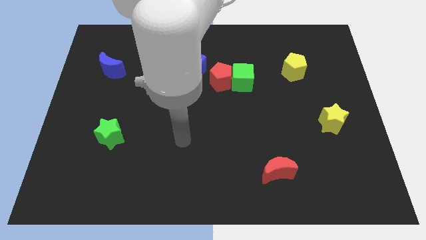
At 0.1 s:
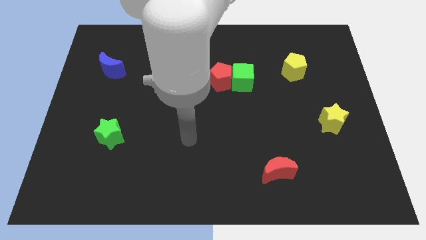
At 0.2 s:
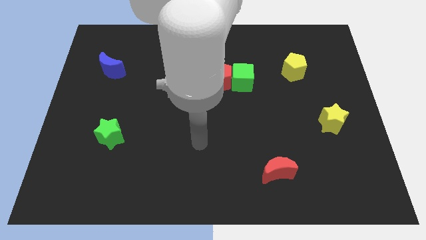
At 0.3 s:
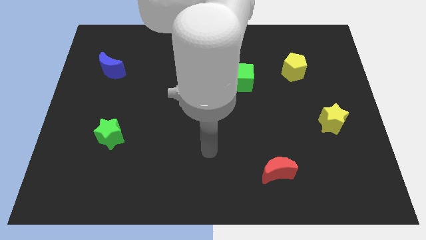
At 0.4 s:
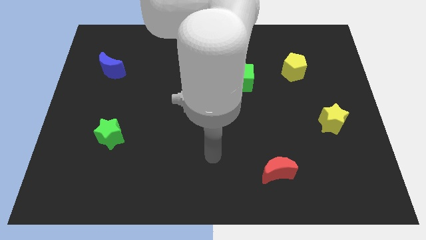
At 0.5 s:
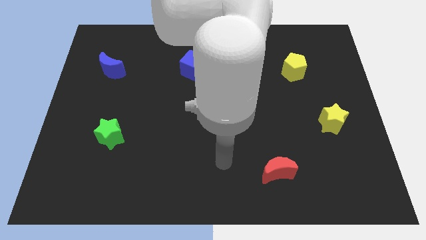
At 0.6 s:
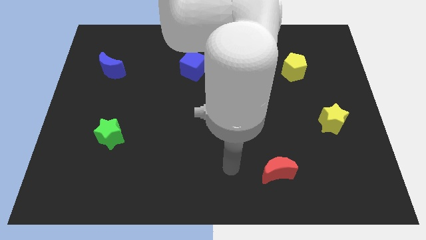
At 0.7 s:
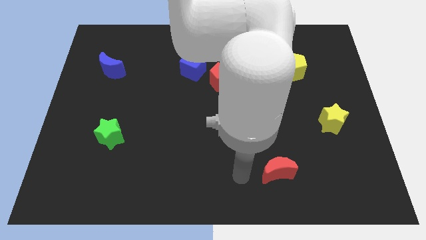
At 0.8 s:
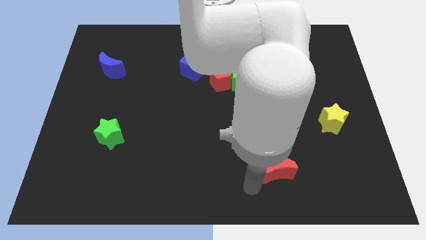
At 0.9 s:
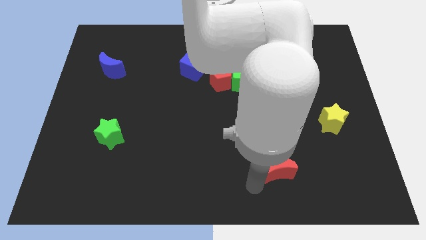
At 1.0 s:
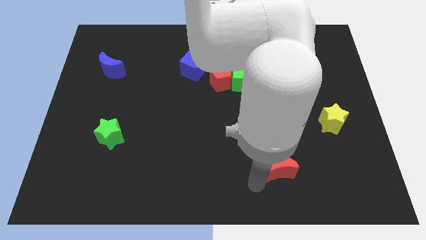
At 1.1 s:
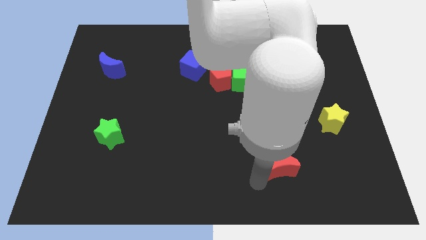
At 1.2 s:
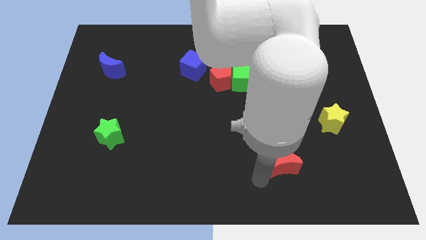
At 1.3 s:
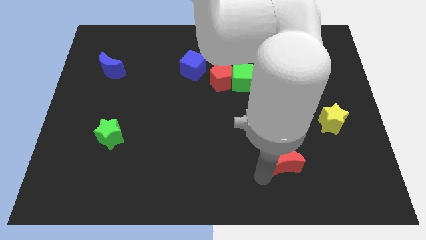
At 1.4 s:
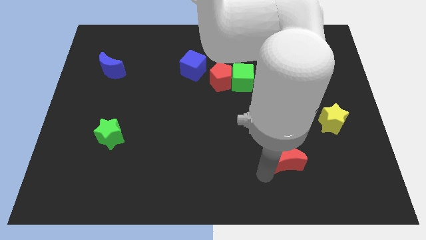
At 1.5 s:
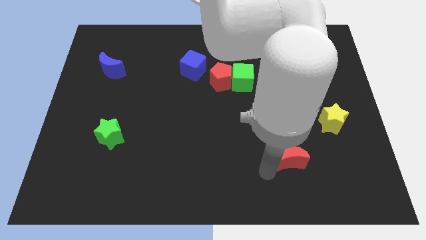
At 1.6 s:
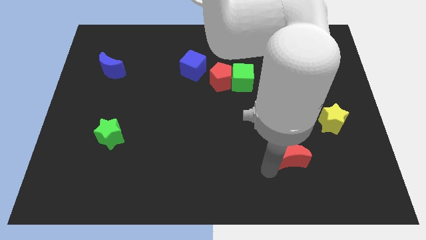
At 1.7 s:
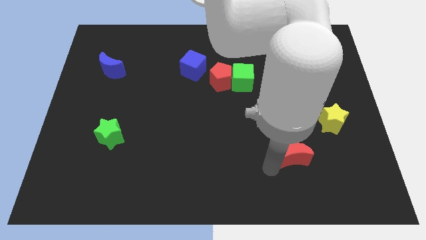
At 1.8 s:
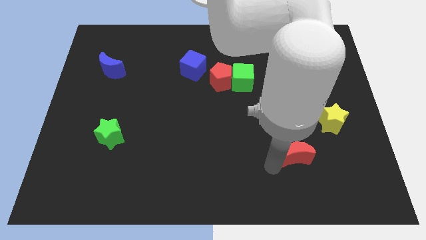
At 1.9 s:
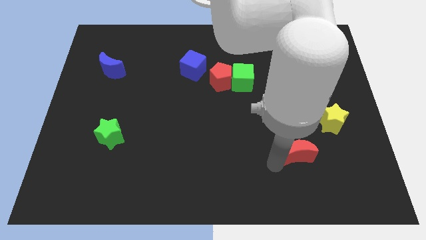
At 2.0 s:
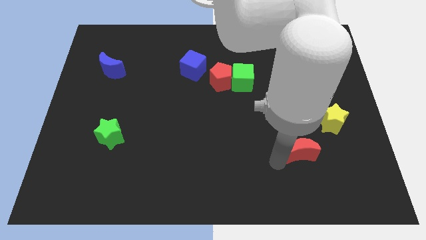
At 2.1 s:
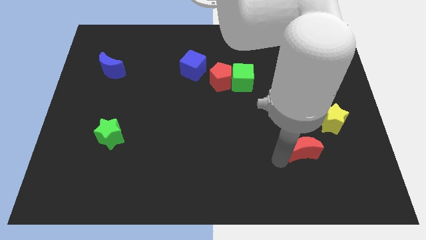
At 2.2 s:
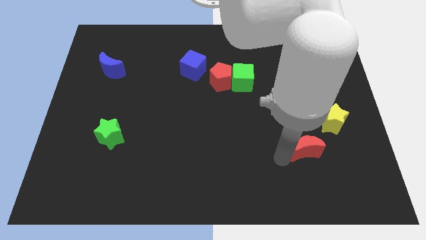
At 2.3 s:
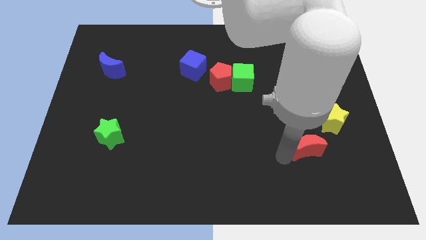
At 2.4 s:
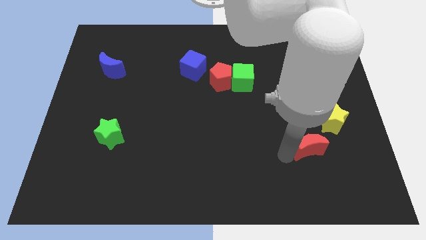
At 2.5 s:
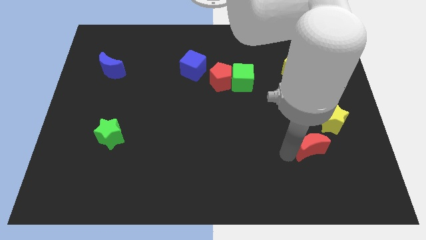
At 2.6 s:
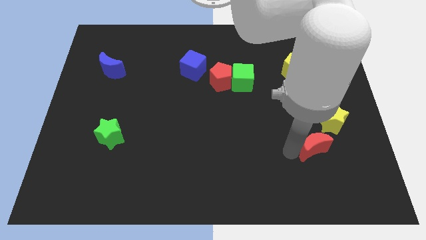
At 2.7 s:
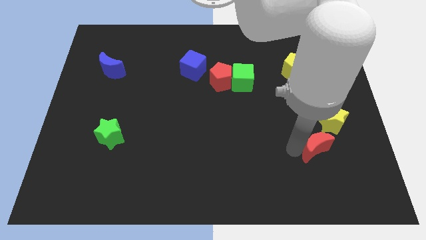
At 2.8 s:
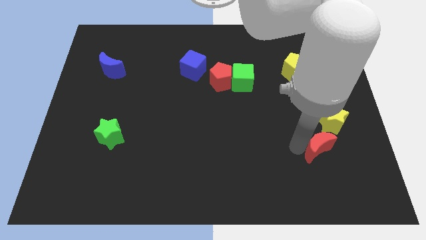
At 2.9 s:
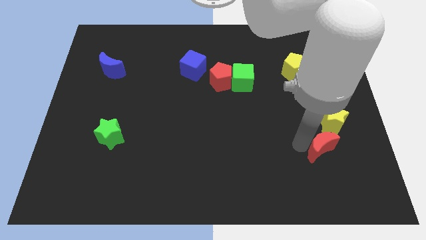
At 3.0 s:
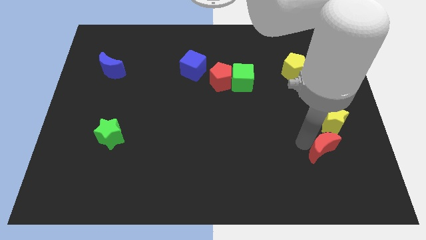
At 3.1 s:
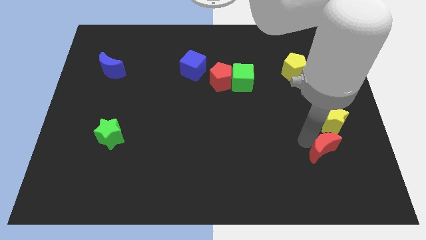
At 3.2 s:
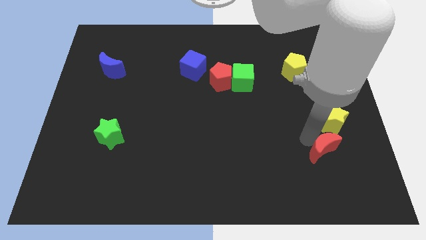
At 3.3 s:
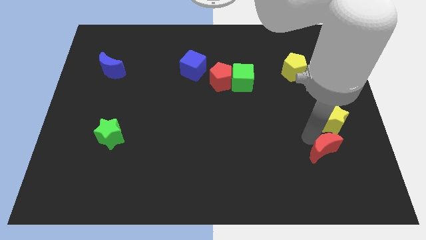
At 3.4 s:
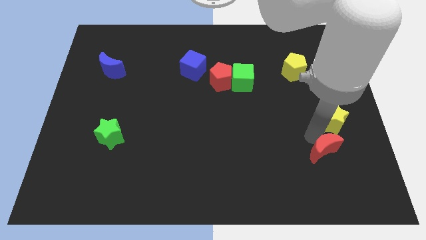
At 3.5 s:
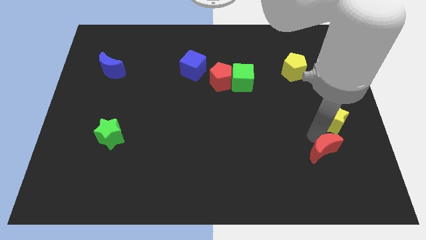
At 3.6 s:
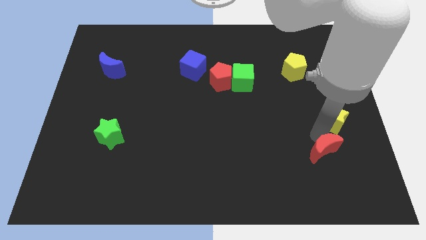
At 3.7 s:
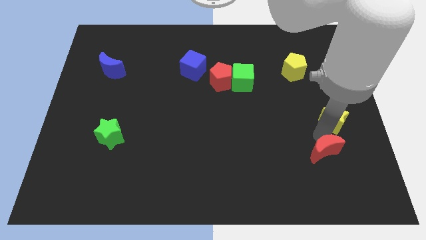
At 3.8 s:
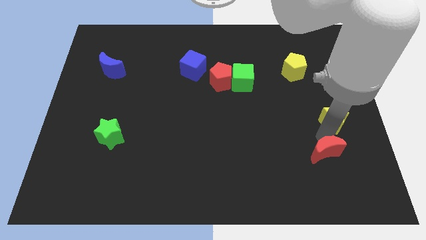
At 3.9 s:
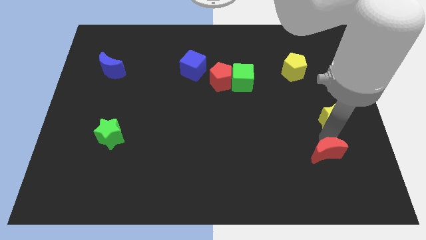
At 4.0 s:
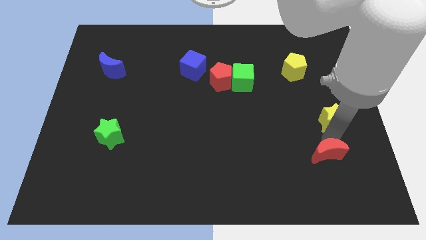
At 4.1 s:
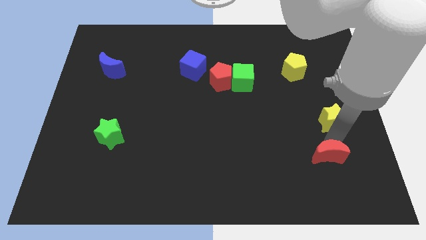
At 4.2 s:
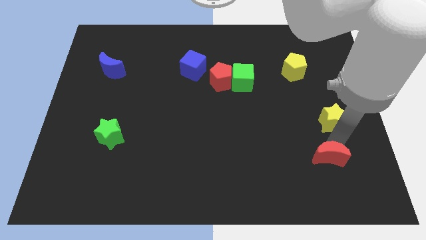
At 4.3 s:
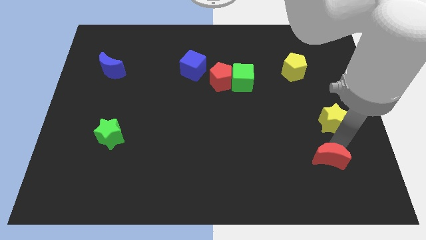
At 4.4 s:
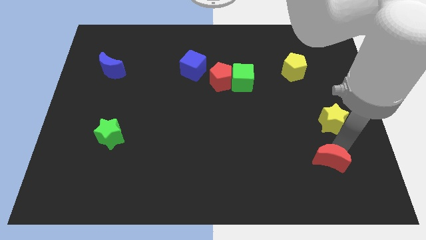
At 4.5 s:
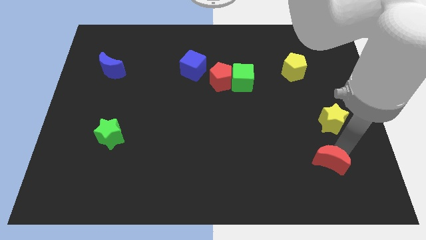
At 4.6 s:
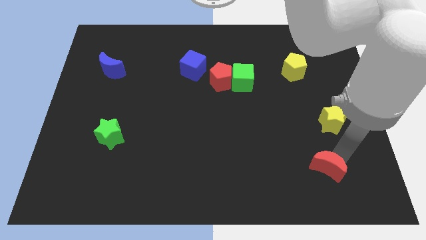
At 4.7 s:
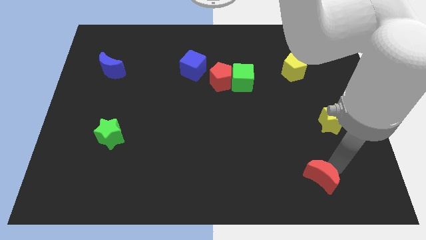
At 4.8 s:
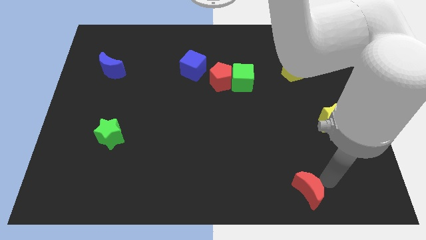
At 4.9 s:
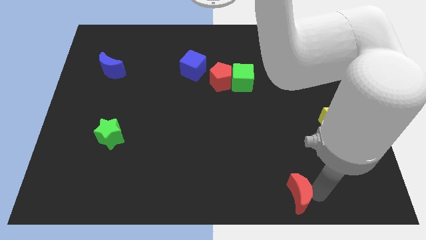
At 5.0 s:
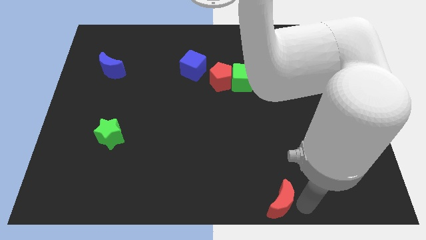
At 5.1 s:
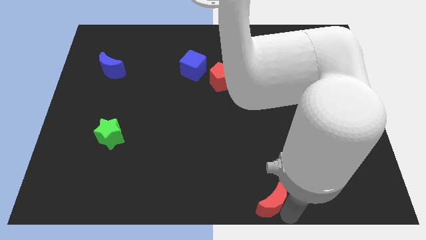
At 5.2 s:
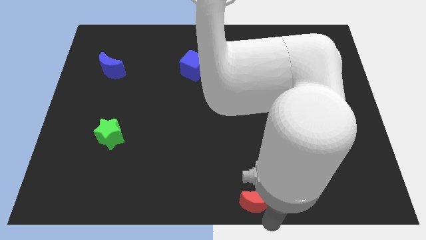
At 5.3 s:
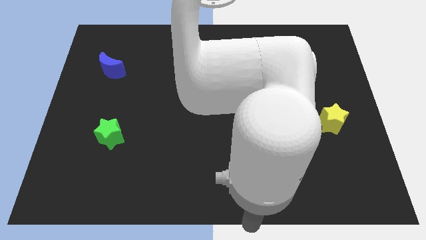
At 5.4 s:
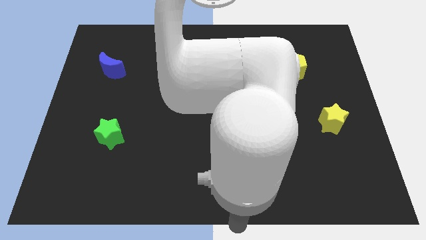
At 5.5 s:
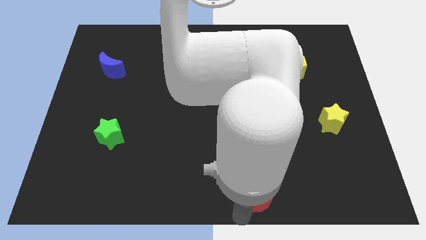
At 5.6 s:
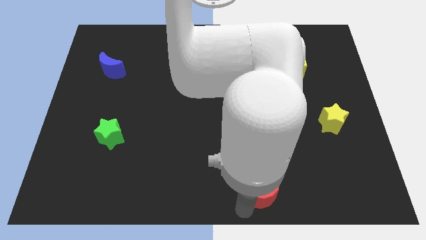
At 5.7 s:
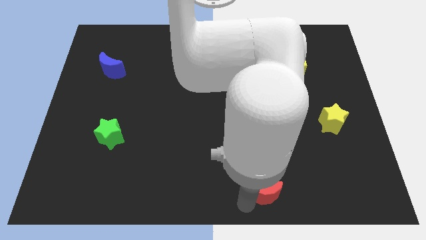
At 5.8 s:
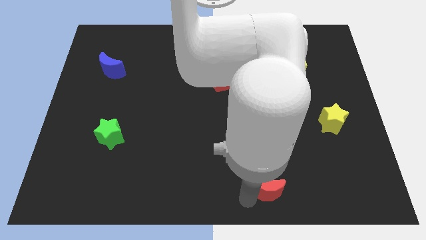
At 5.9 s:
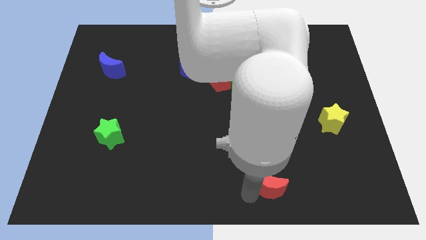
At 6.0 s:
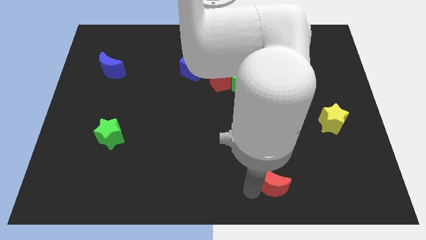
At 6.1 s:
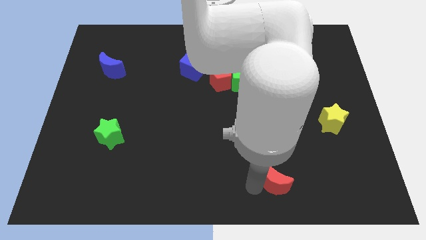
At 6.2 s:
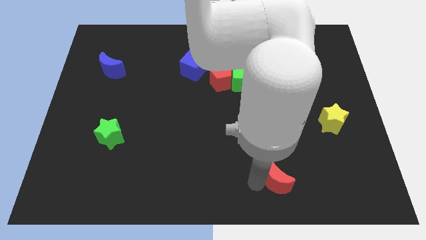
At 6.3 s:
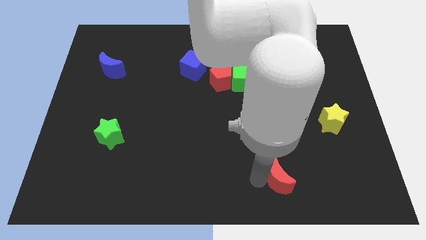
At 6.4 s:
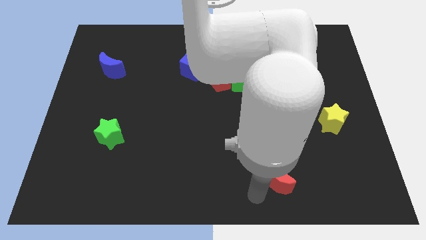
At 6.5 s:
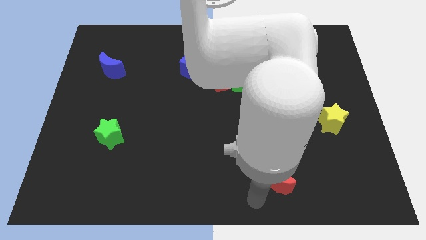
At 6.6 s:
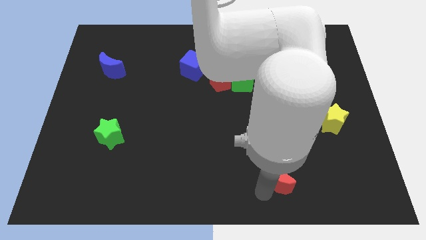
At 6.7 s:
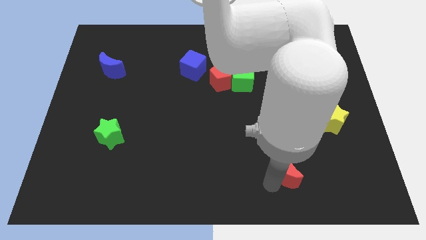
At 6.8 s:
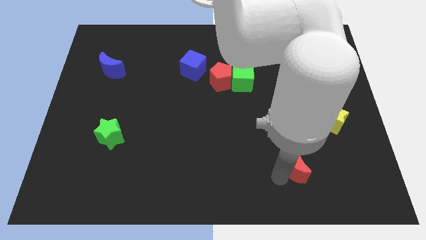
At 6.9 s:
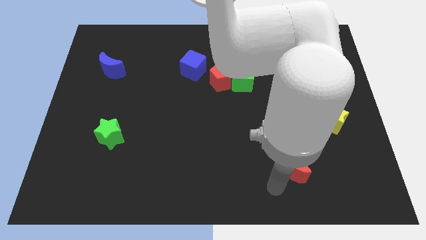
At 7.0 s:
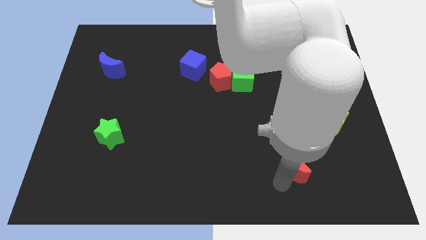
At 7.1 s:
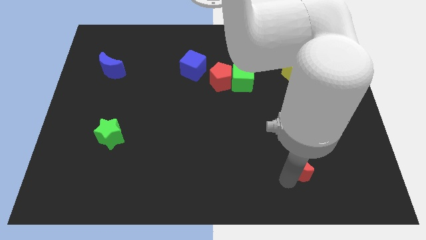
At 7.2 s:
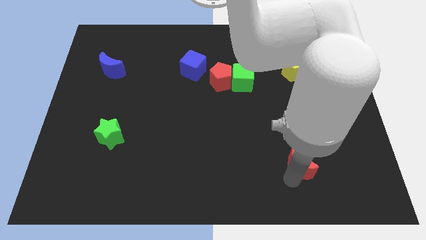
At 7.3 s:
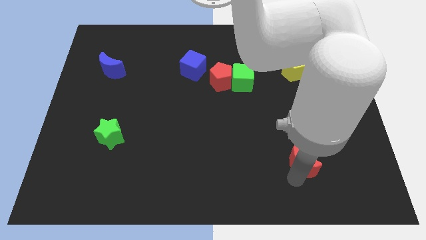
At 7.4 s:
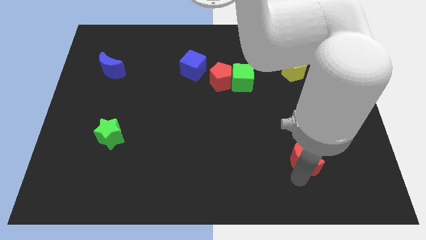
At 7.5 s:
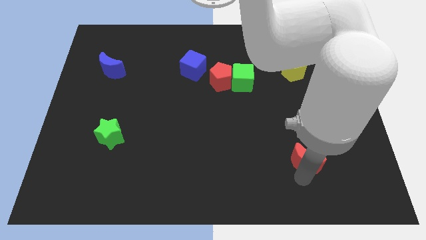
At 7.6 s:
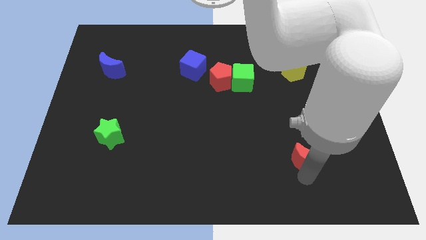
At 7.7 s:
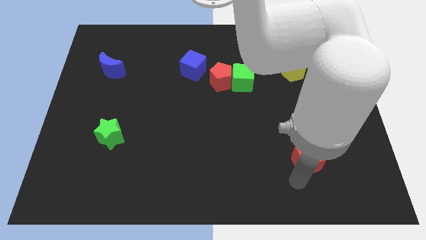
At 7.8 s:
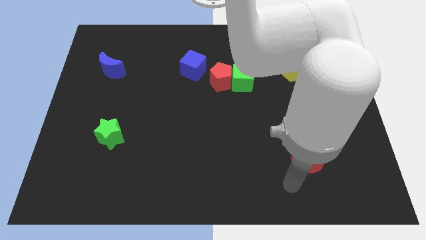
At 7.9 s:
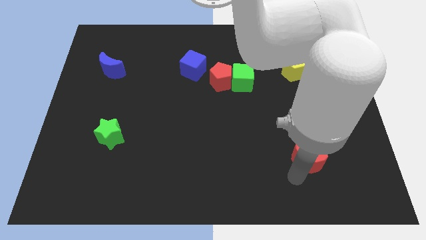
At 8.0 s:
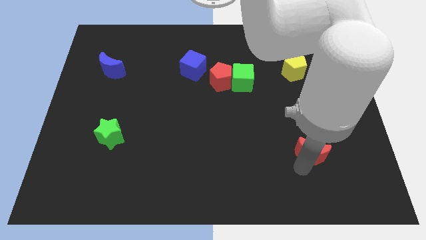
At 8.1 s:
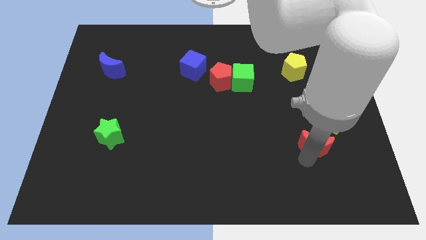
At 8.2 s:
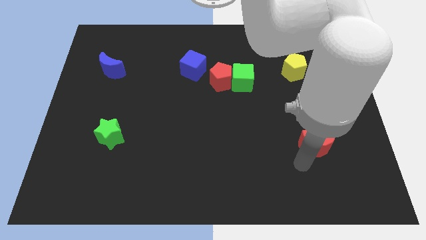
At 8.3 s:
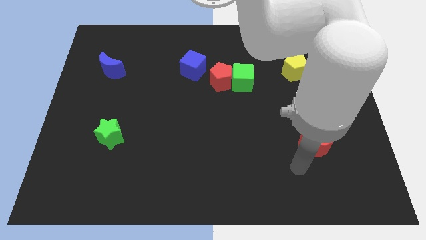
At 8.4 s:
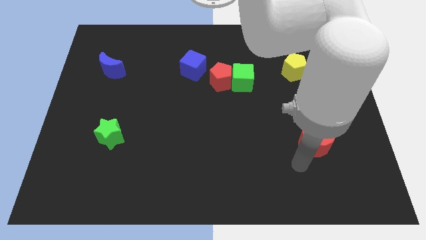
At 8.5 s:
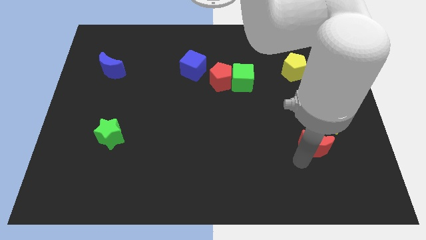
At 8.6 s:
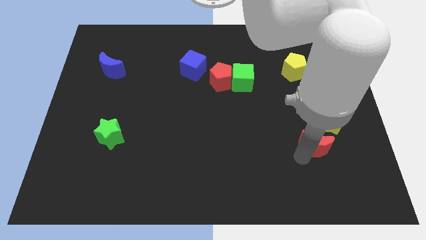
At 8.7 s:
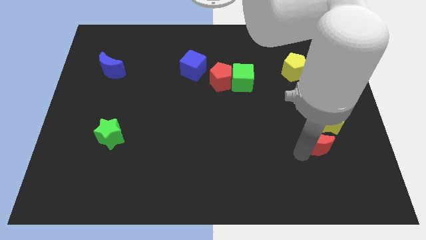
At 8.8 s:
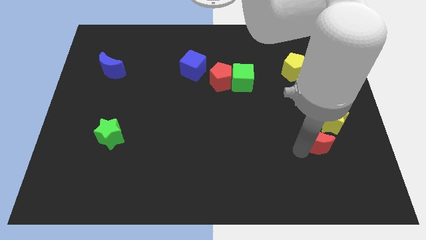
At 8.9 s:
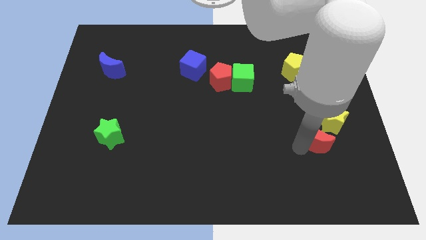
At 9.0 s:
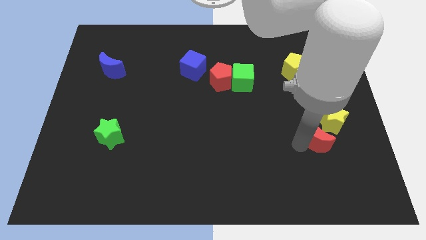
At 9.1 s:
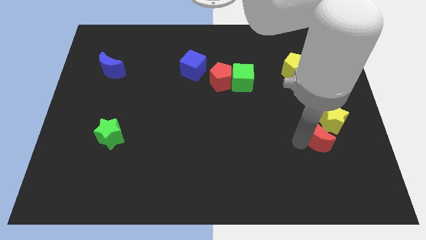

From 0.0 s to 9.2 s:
put the red moon next to the yellow star
